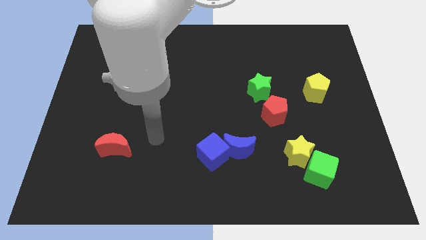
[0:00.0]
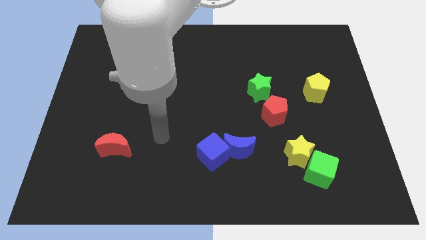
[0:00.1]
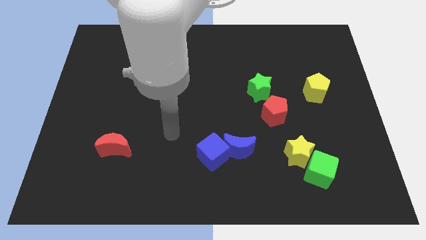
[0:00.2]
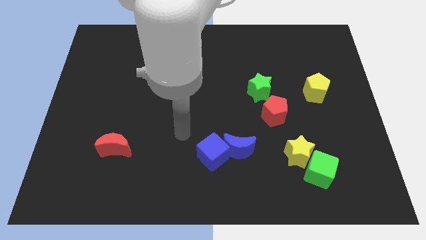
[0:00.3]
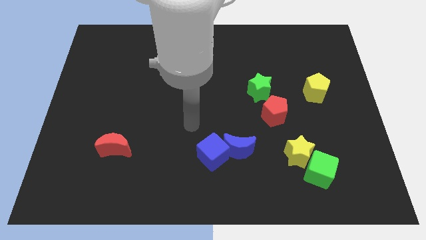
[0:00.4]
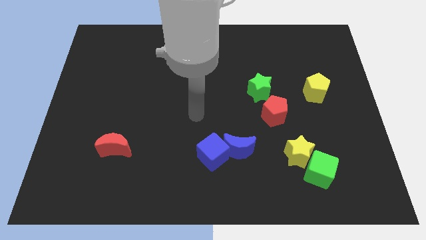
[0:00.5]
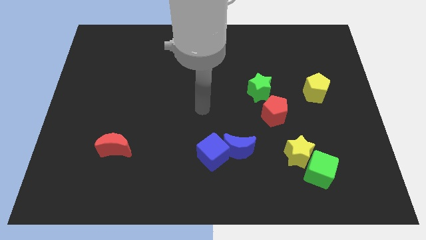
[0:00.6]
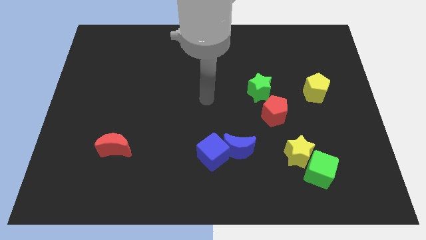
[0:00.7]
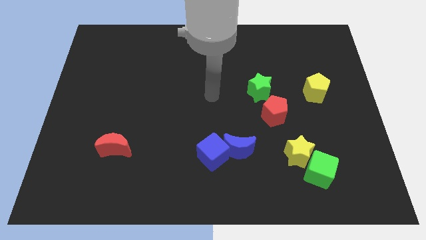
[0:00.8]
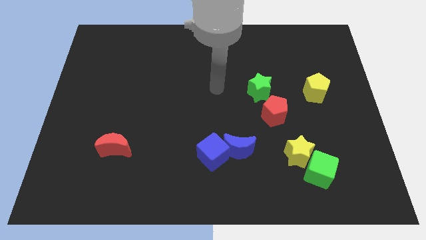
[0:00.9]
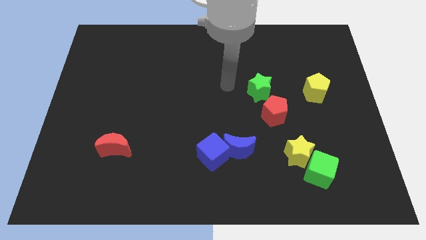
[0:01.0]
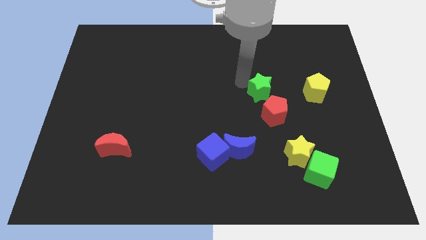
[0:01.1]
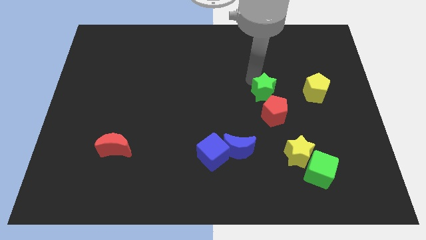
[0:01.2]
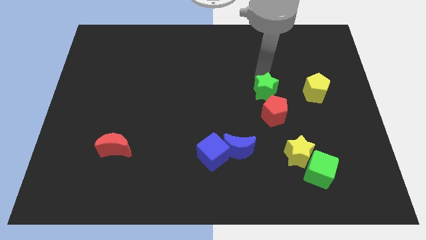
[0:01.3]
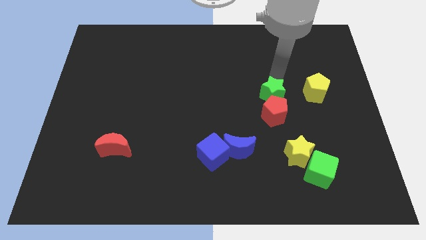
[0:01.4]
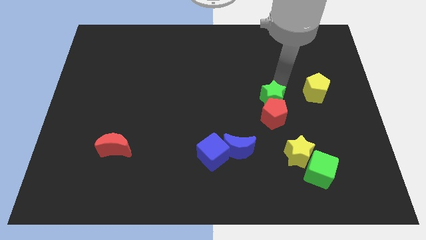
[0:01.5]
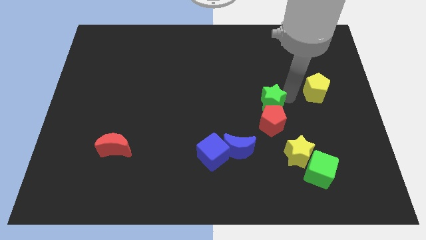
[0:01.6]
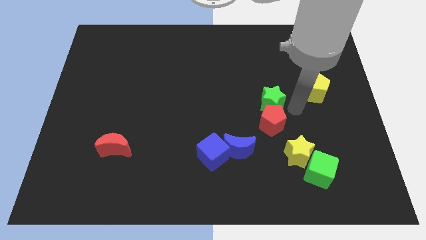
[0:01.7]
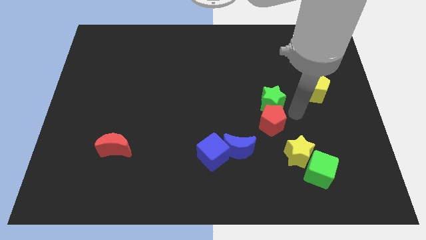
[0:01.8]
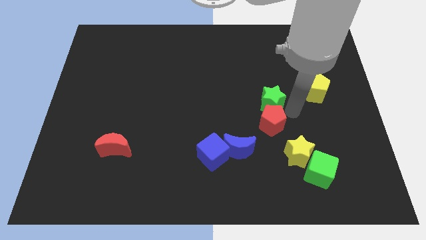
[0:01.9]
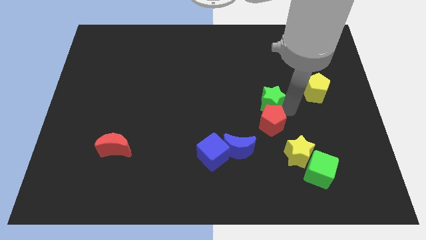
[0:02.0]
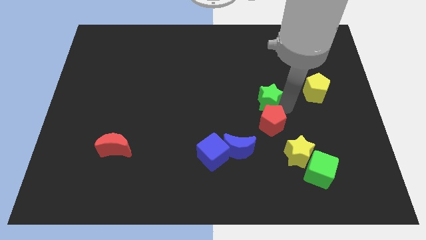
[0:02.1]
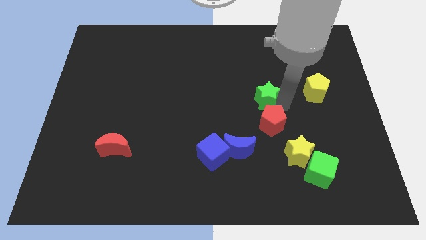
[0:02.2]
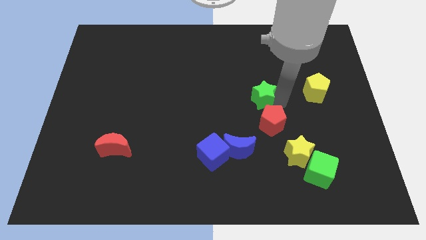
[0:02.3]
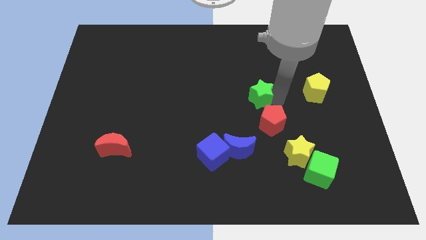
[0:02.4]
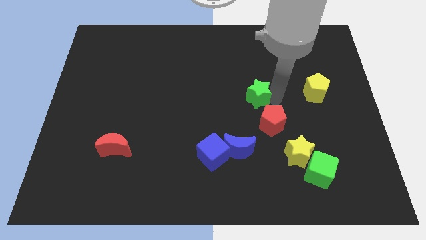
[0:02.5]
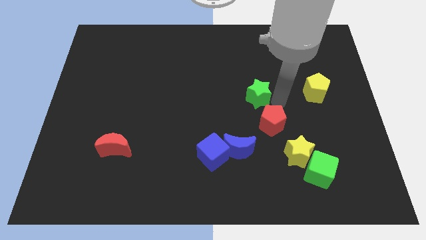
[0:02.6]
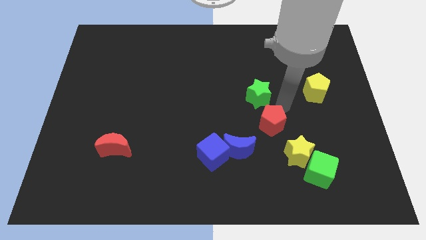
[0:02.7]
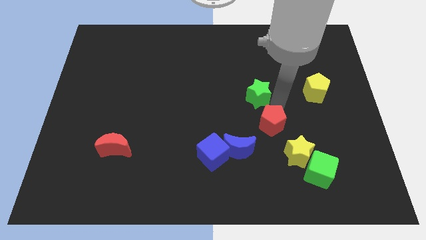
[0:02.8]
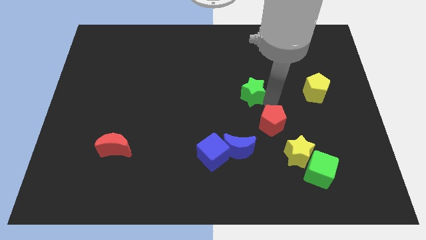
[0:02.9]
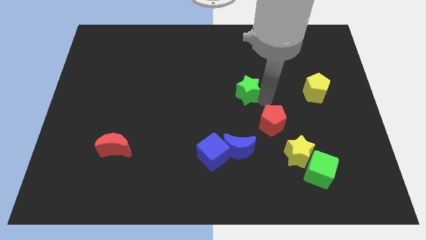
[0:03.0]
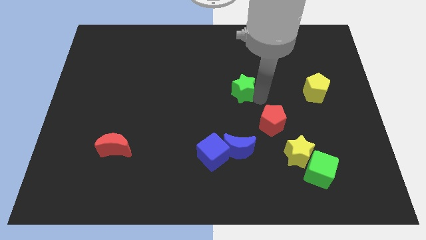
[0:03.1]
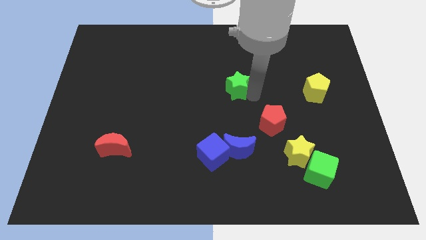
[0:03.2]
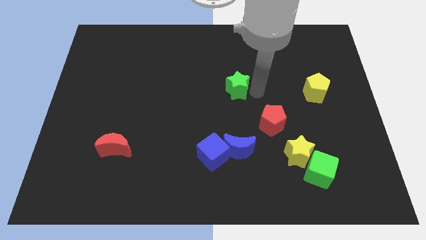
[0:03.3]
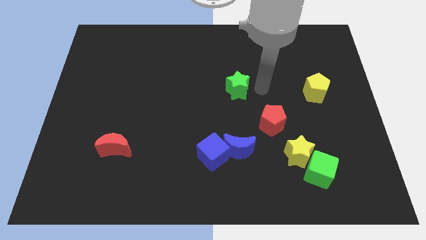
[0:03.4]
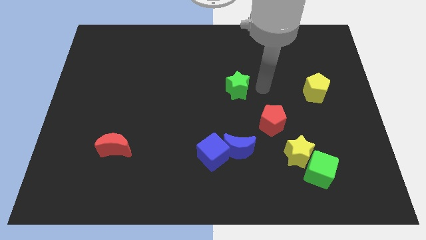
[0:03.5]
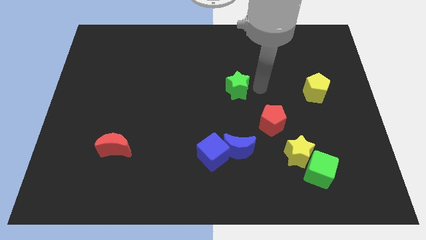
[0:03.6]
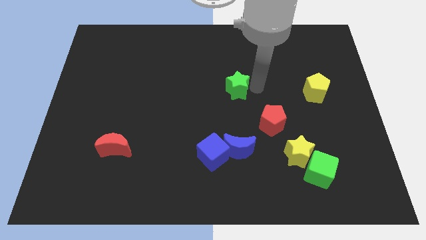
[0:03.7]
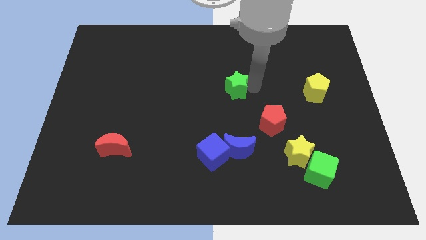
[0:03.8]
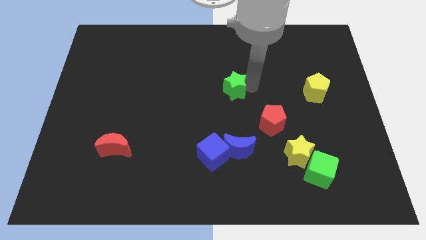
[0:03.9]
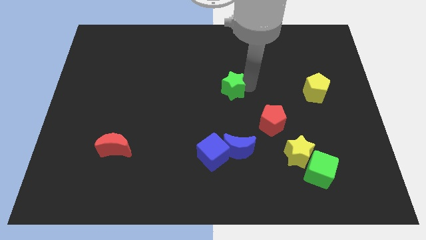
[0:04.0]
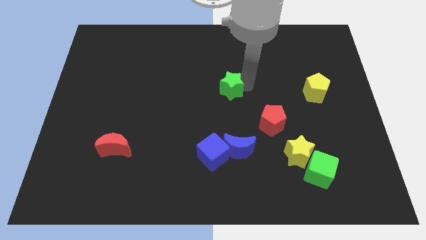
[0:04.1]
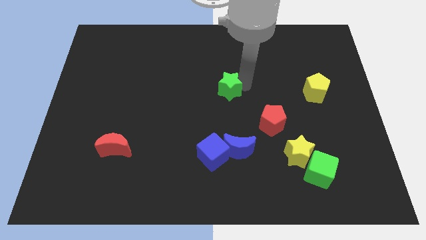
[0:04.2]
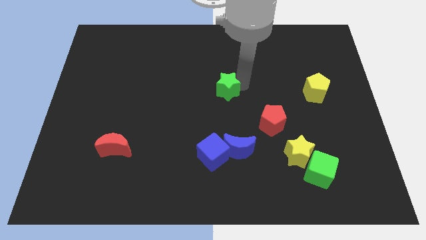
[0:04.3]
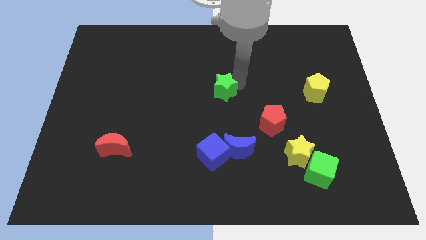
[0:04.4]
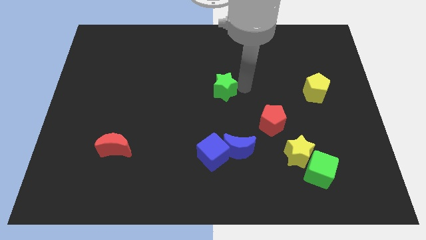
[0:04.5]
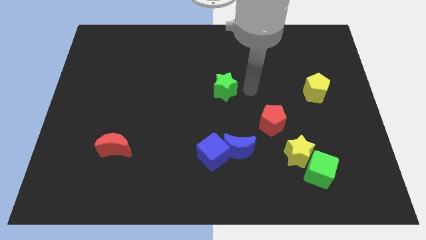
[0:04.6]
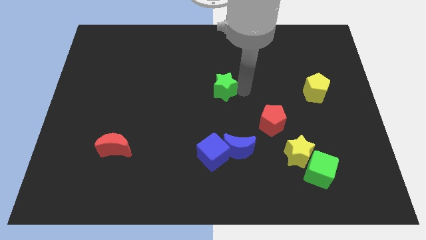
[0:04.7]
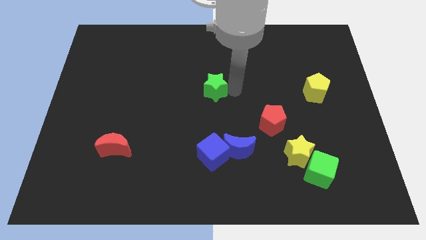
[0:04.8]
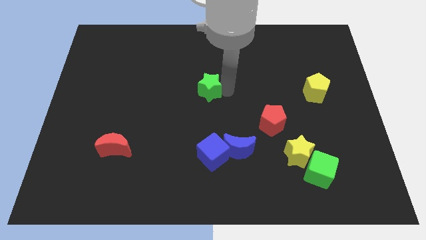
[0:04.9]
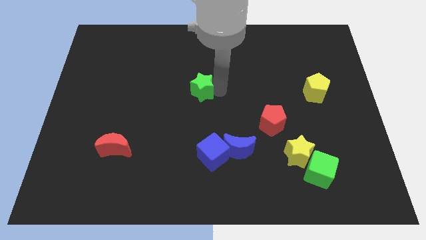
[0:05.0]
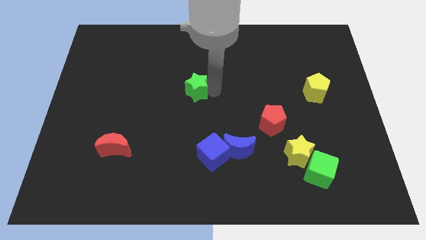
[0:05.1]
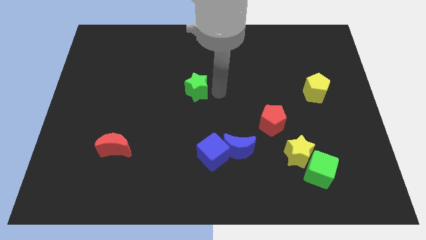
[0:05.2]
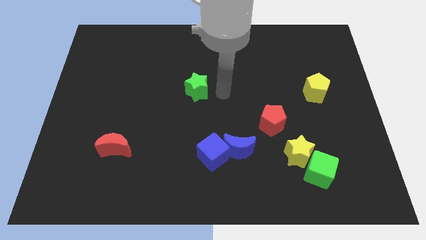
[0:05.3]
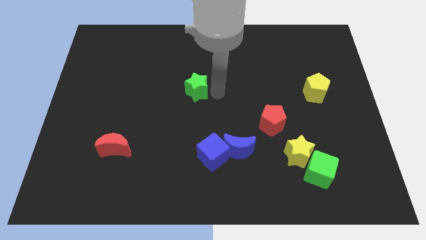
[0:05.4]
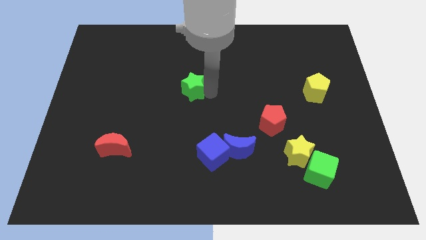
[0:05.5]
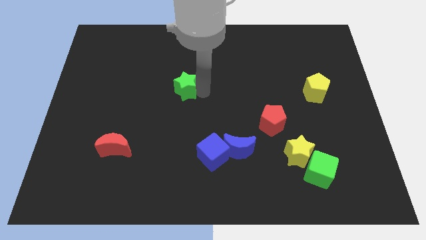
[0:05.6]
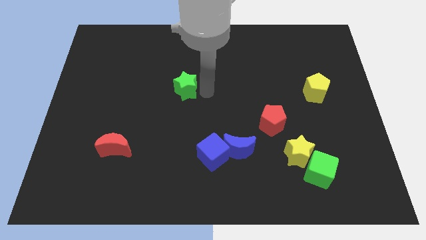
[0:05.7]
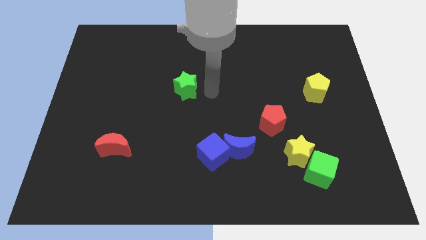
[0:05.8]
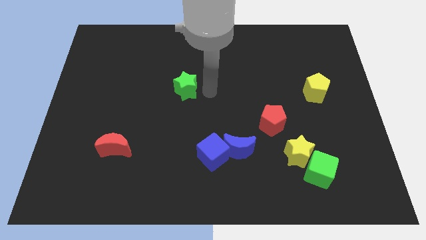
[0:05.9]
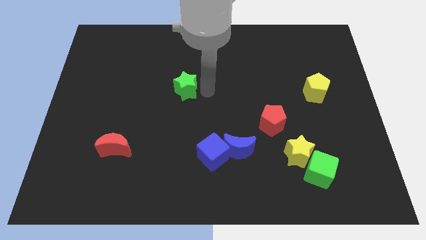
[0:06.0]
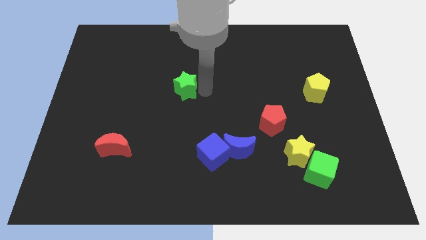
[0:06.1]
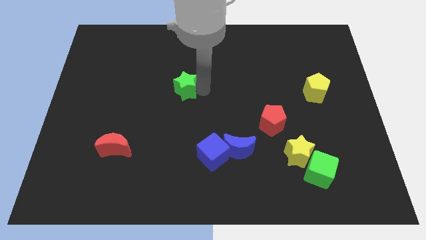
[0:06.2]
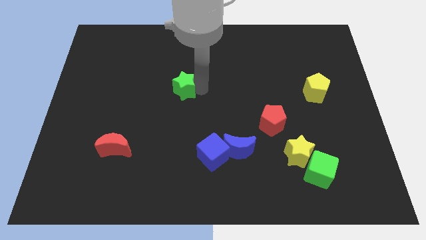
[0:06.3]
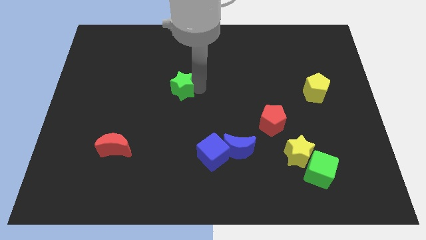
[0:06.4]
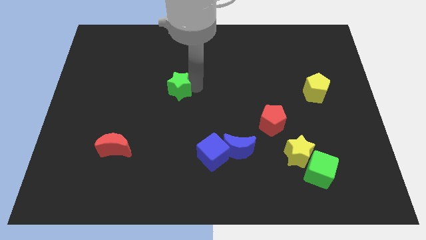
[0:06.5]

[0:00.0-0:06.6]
move the green star left

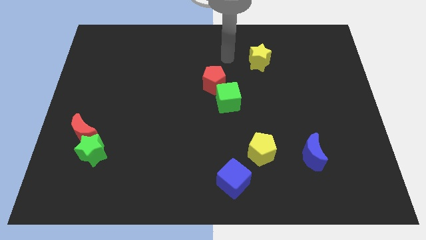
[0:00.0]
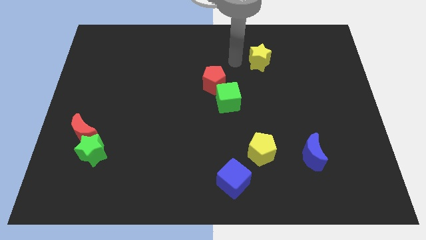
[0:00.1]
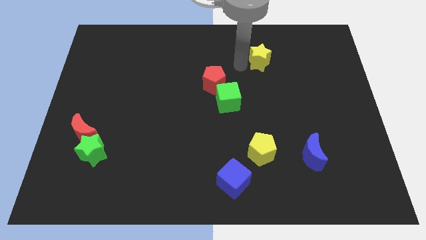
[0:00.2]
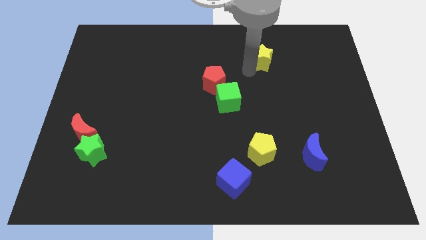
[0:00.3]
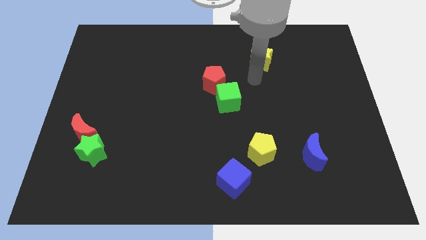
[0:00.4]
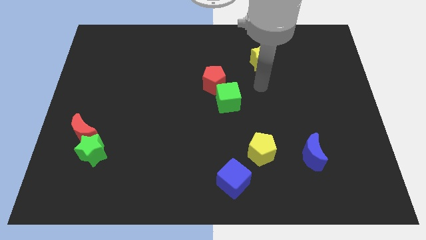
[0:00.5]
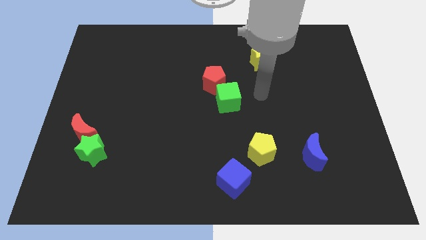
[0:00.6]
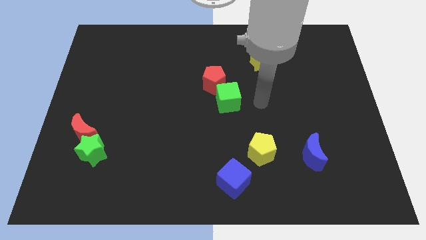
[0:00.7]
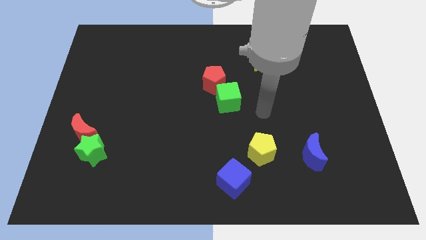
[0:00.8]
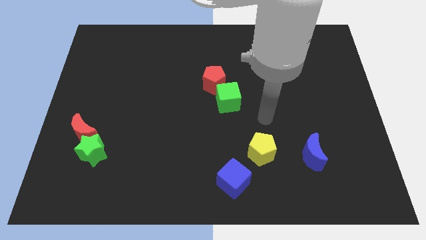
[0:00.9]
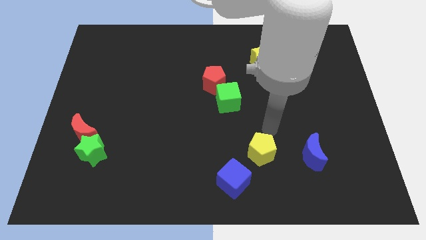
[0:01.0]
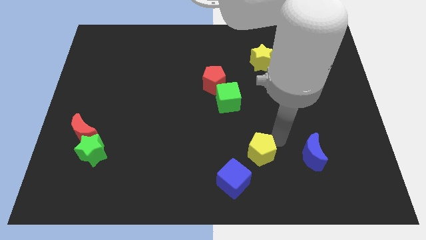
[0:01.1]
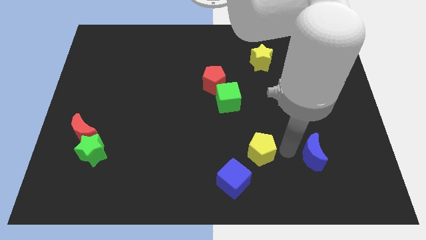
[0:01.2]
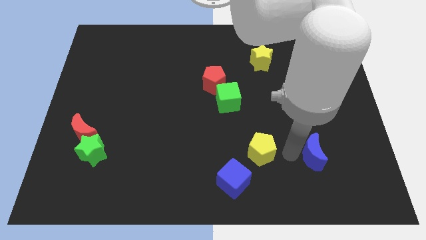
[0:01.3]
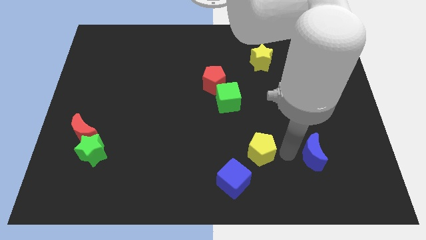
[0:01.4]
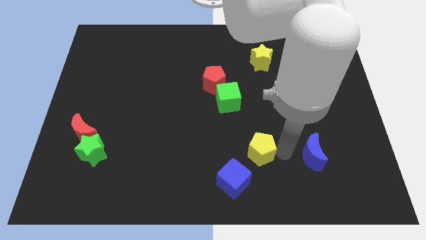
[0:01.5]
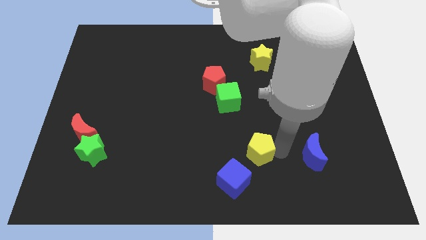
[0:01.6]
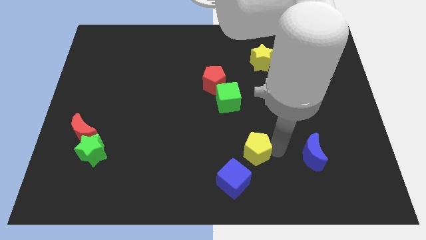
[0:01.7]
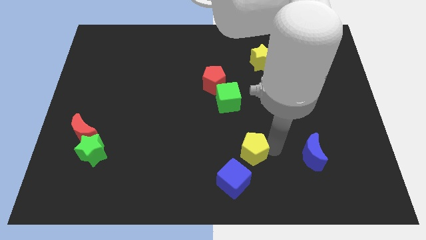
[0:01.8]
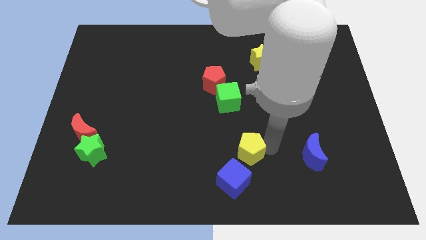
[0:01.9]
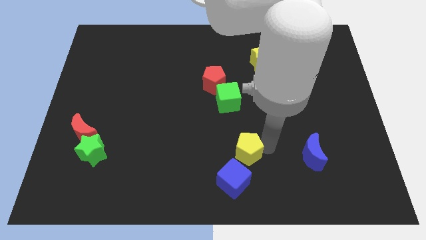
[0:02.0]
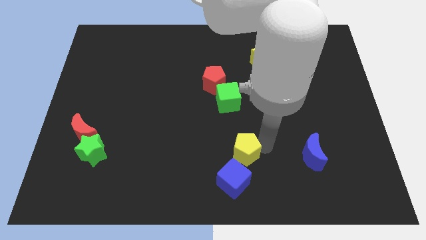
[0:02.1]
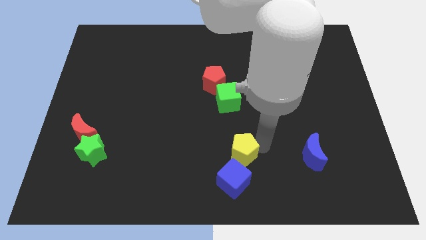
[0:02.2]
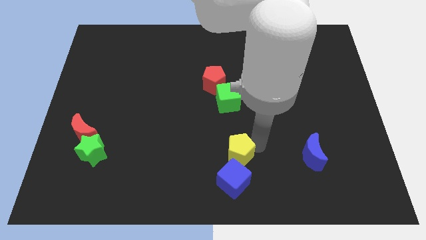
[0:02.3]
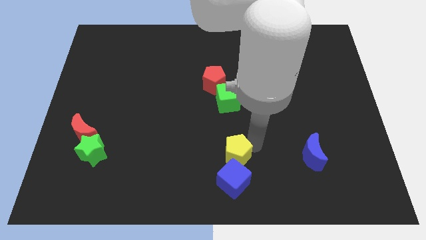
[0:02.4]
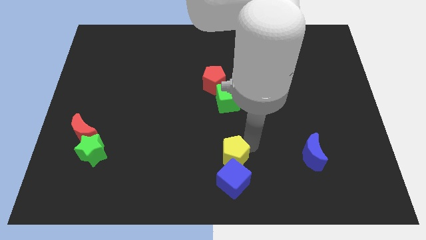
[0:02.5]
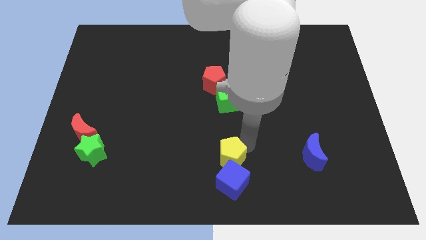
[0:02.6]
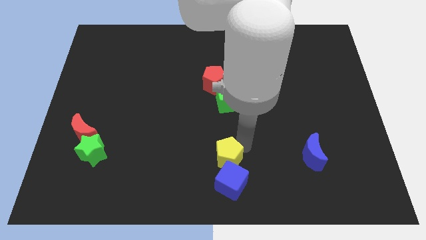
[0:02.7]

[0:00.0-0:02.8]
move the yellow pentagon left a little bit
